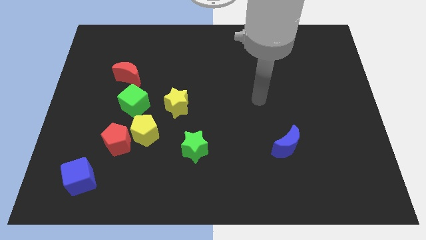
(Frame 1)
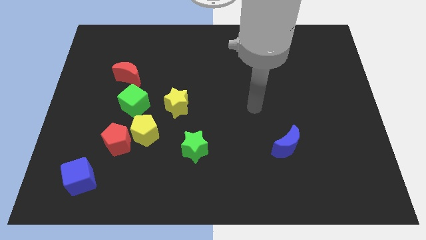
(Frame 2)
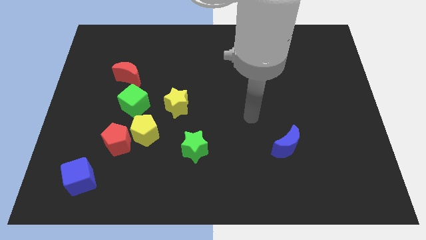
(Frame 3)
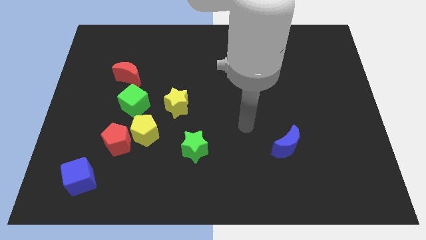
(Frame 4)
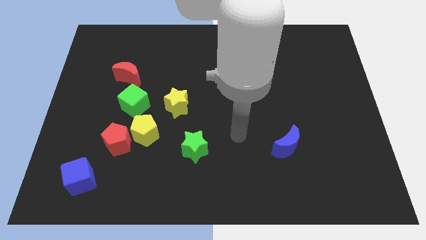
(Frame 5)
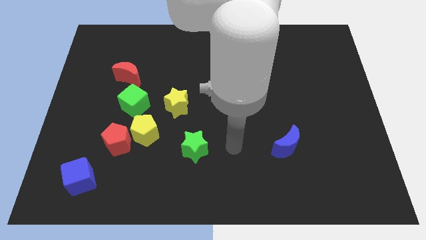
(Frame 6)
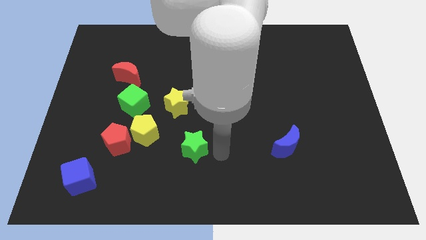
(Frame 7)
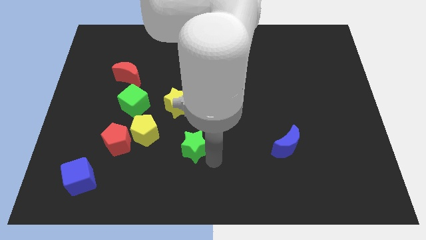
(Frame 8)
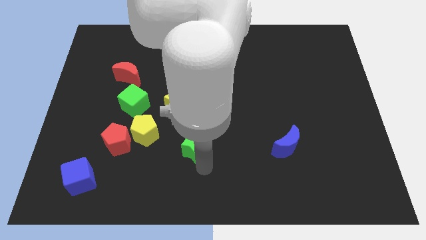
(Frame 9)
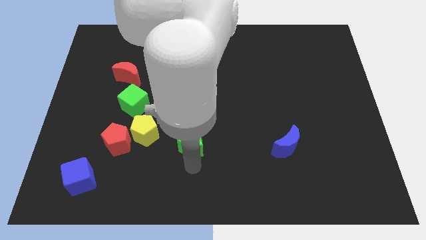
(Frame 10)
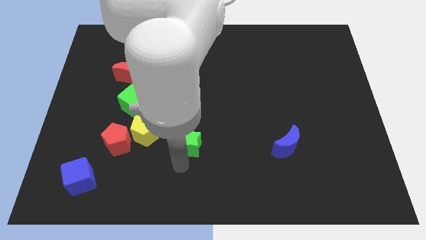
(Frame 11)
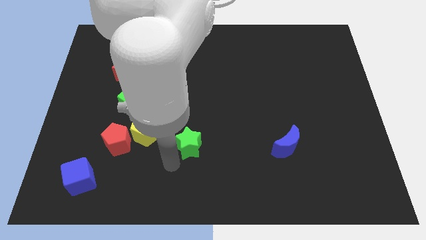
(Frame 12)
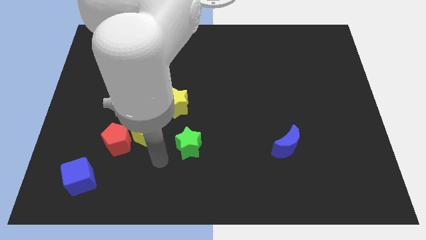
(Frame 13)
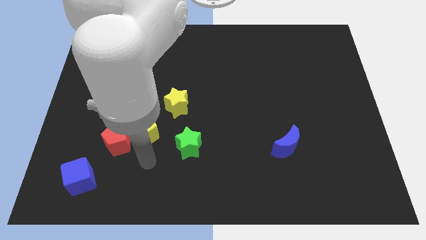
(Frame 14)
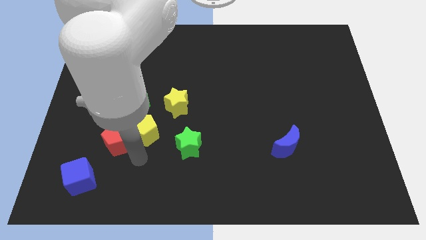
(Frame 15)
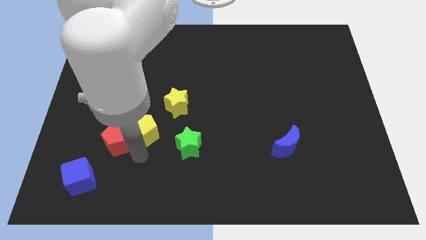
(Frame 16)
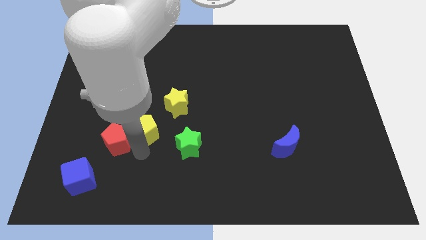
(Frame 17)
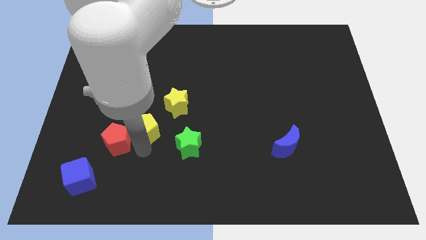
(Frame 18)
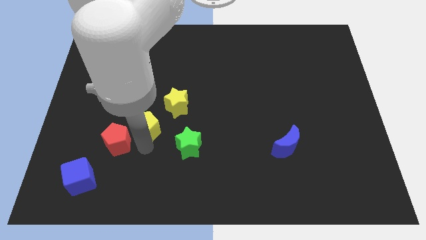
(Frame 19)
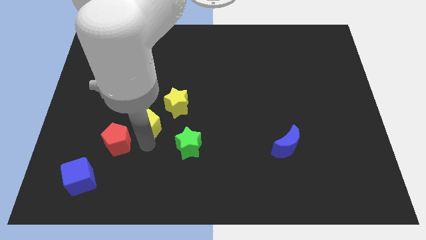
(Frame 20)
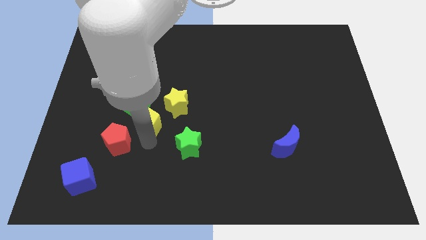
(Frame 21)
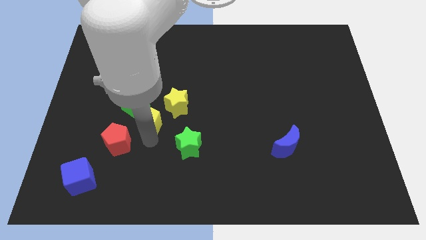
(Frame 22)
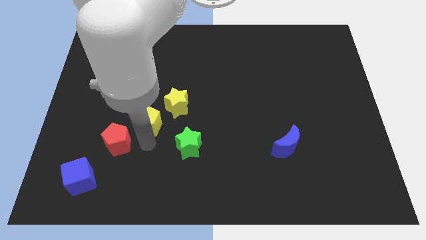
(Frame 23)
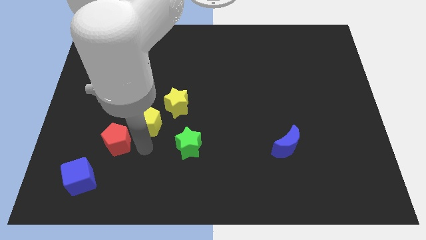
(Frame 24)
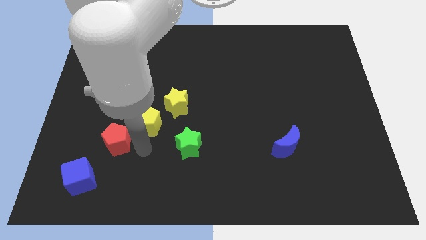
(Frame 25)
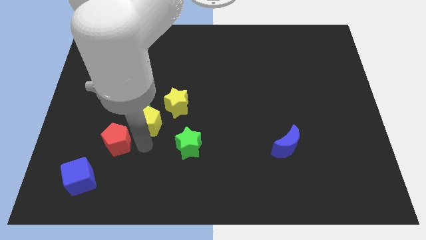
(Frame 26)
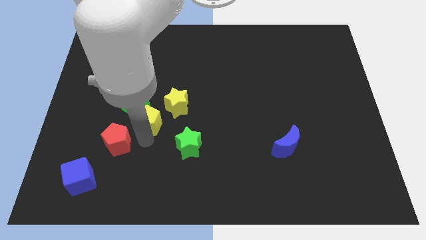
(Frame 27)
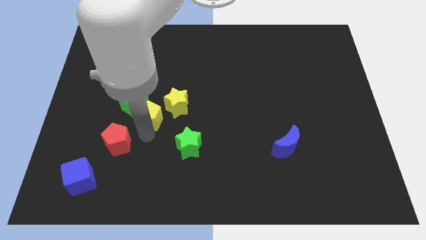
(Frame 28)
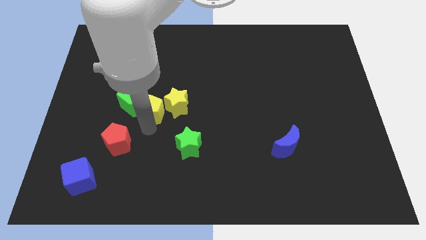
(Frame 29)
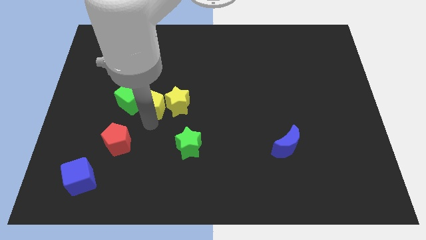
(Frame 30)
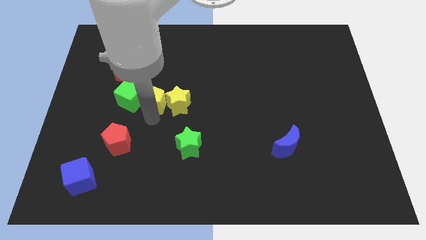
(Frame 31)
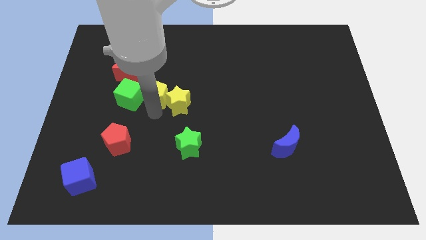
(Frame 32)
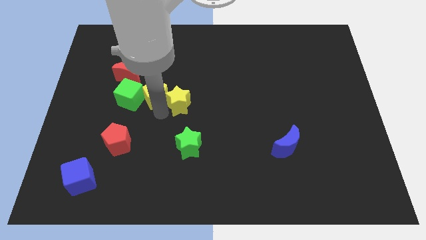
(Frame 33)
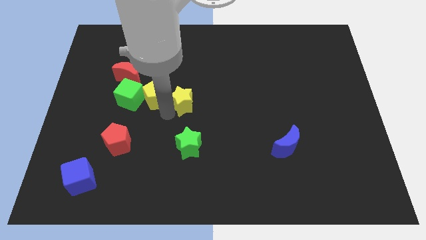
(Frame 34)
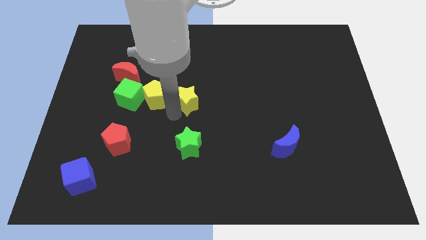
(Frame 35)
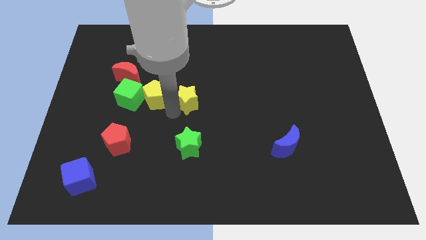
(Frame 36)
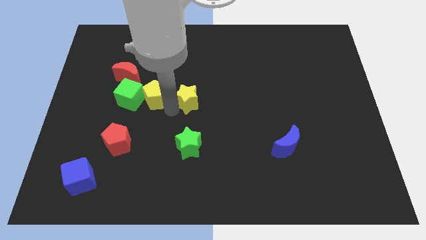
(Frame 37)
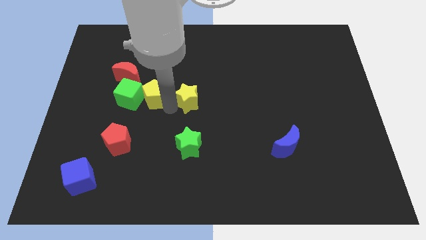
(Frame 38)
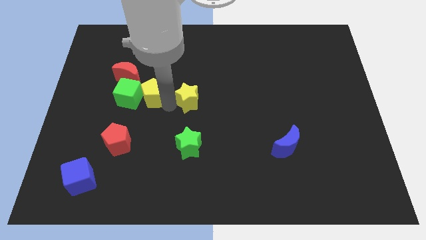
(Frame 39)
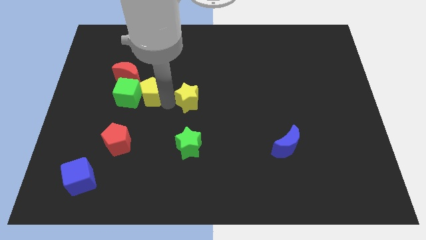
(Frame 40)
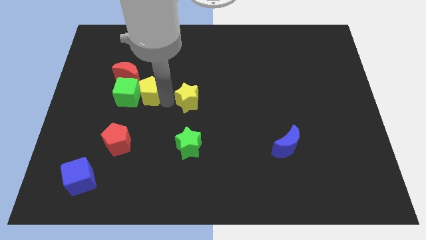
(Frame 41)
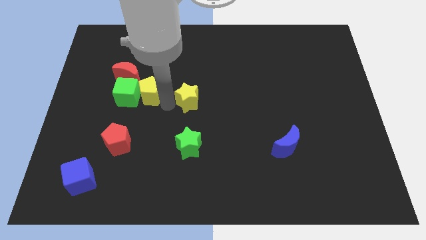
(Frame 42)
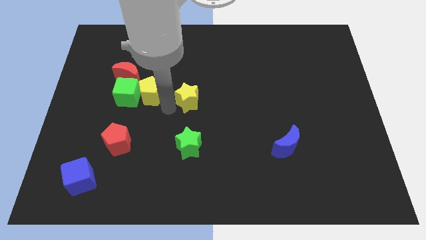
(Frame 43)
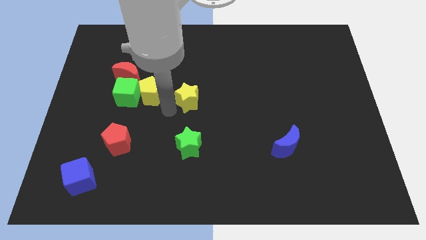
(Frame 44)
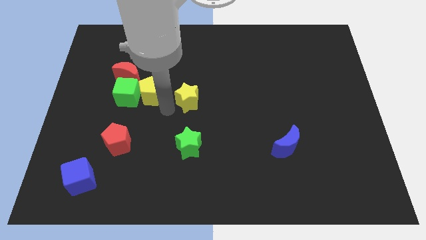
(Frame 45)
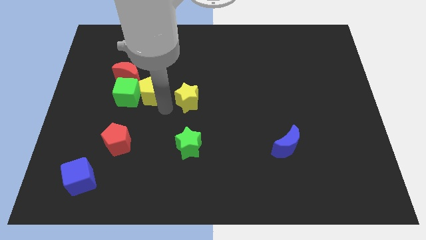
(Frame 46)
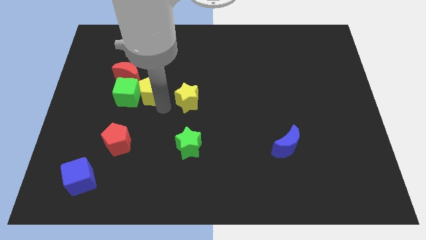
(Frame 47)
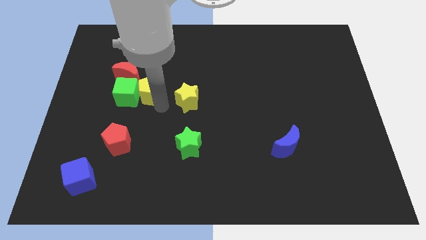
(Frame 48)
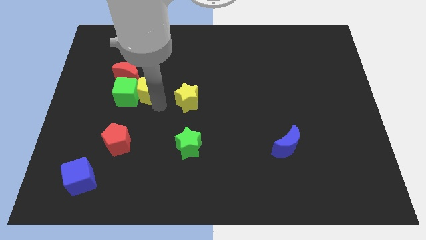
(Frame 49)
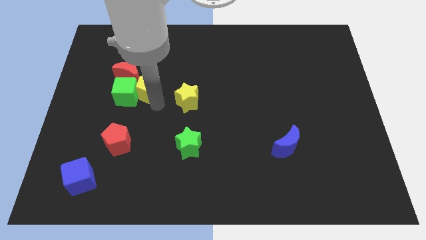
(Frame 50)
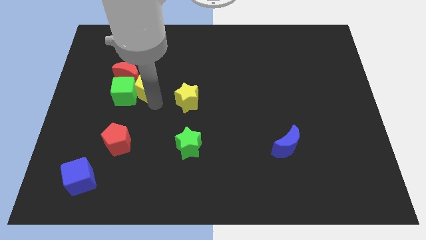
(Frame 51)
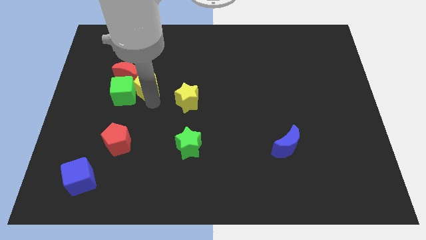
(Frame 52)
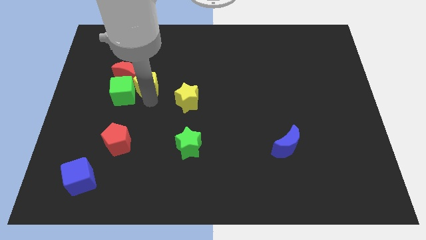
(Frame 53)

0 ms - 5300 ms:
slide the yellow pentagon towards the red moon
